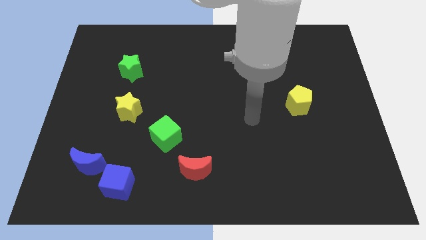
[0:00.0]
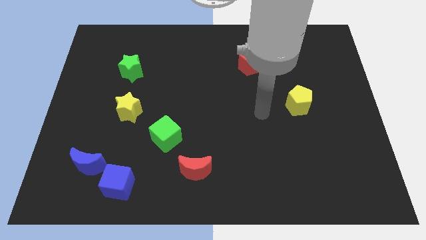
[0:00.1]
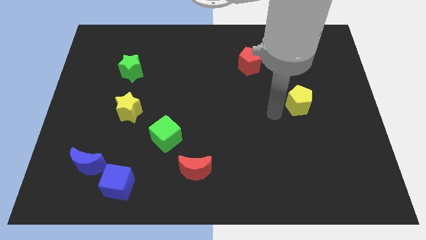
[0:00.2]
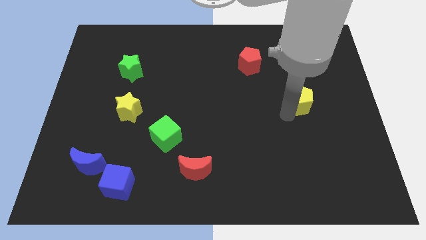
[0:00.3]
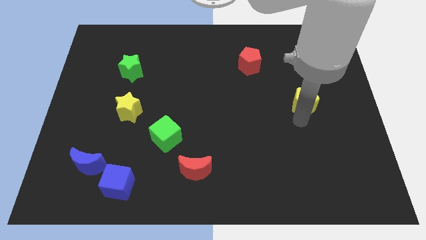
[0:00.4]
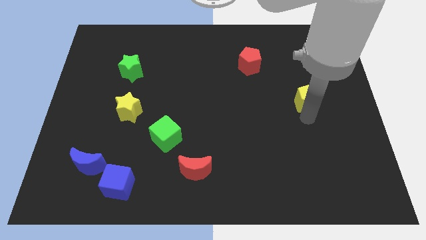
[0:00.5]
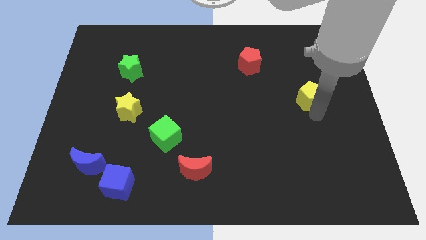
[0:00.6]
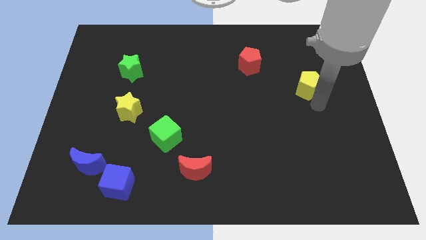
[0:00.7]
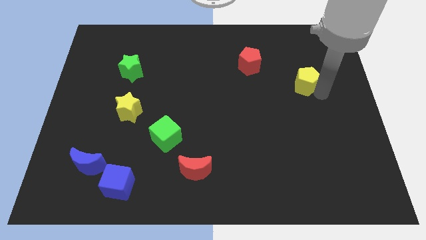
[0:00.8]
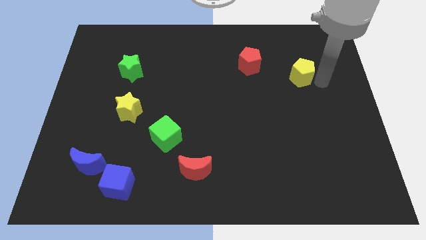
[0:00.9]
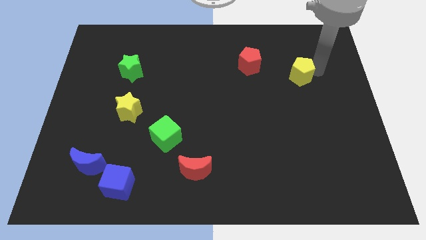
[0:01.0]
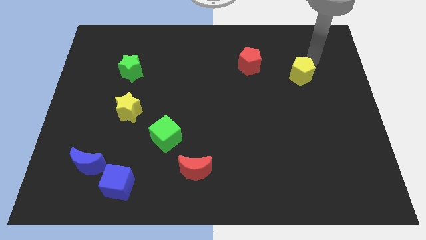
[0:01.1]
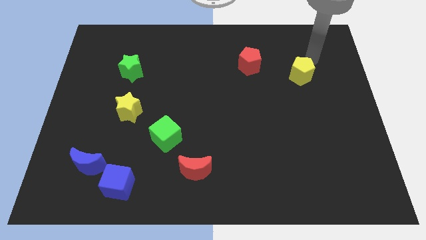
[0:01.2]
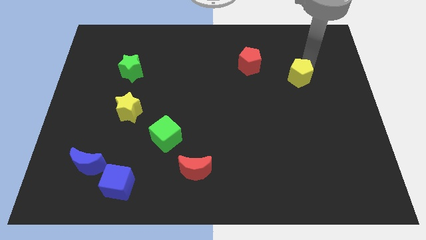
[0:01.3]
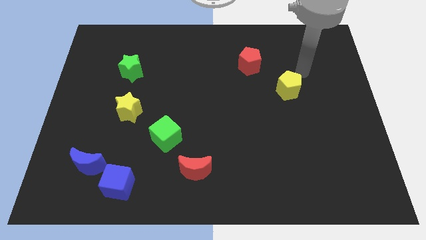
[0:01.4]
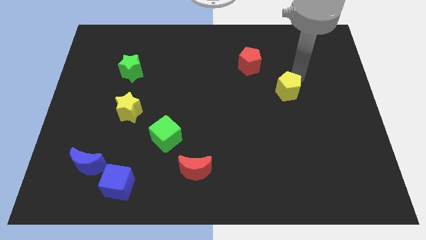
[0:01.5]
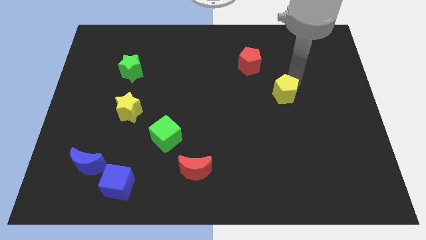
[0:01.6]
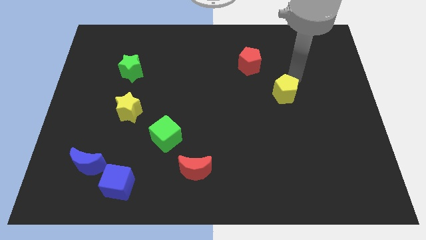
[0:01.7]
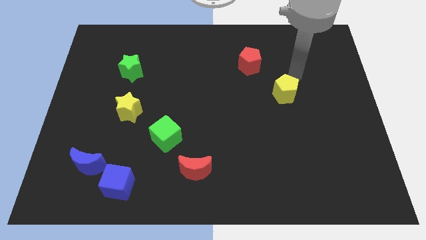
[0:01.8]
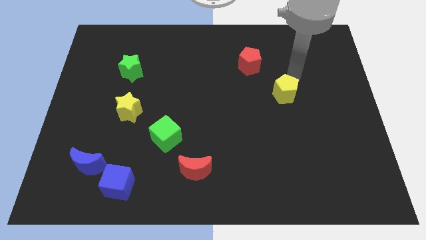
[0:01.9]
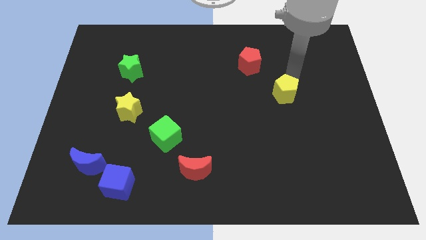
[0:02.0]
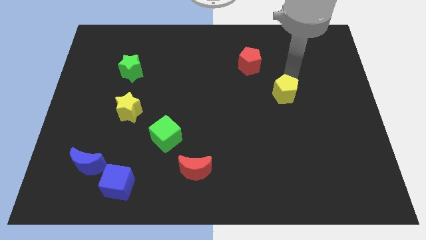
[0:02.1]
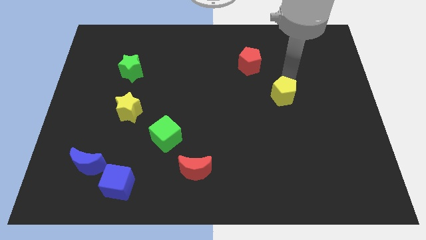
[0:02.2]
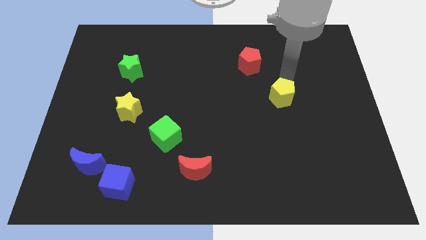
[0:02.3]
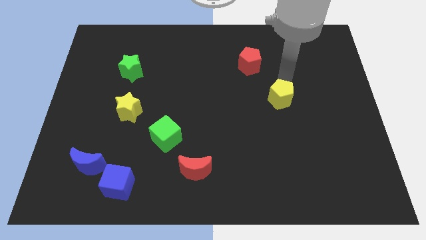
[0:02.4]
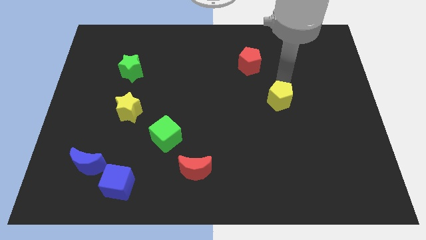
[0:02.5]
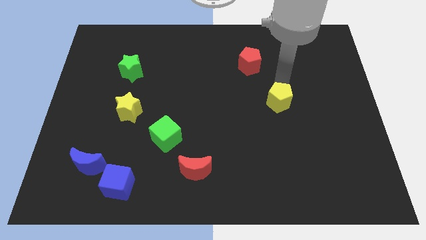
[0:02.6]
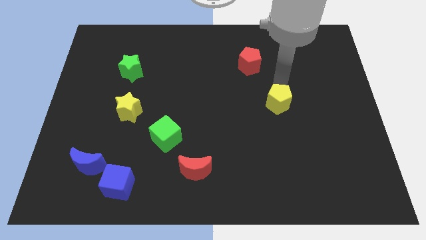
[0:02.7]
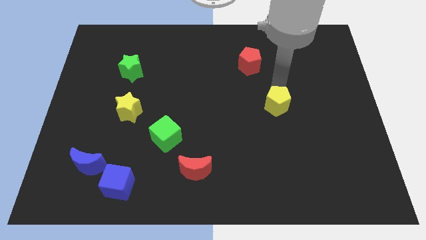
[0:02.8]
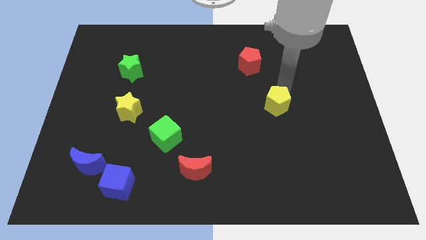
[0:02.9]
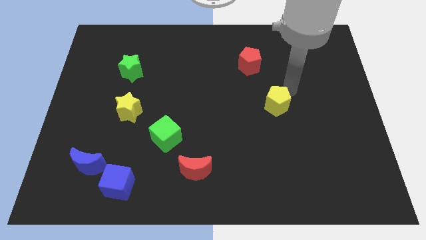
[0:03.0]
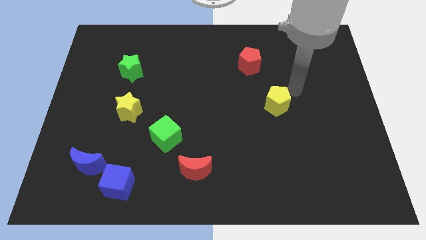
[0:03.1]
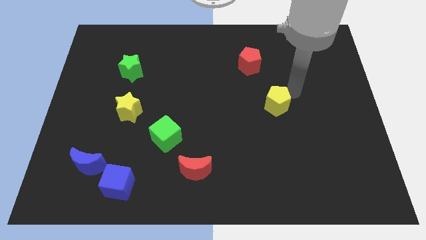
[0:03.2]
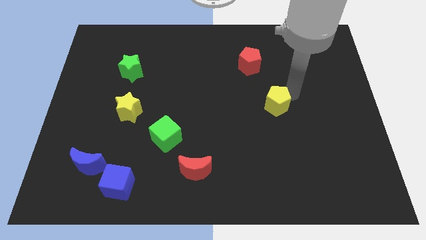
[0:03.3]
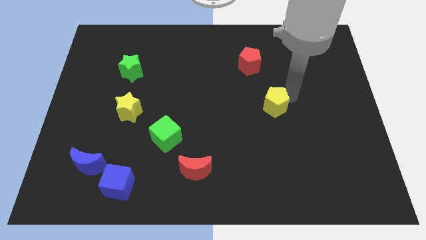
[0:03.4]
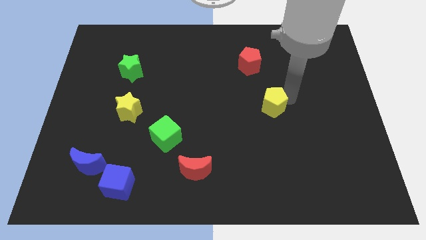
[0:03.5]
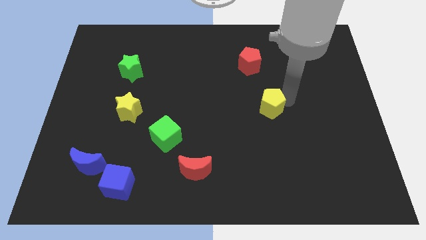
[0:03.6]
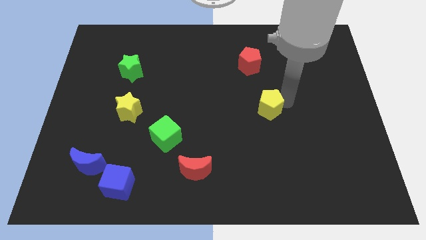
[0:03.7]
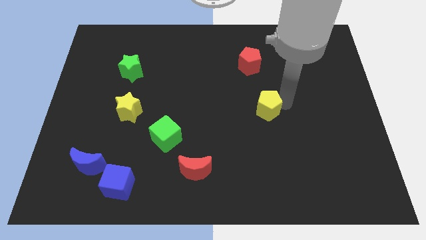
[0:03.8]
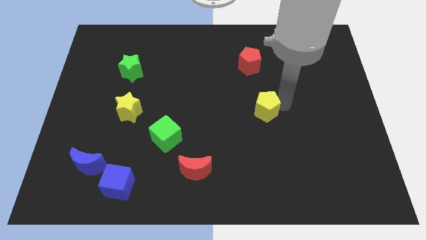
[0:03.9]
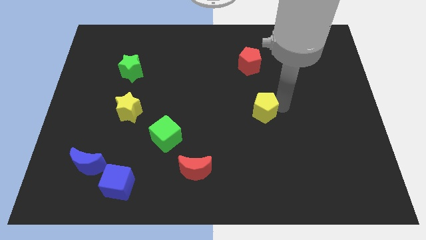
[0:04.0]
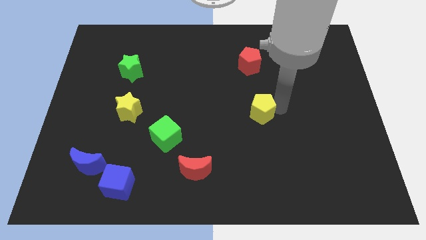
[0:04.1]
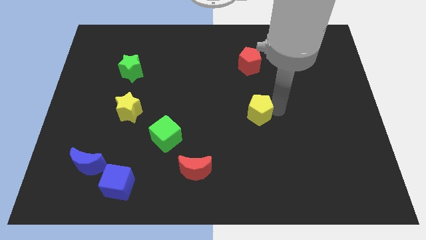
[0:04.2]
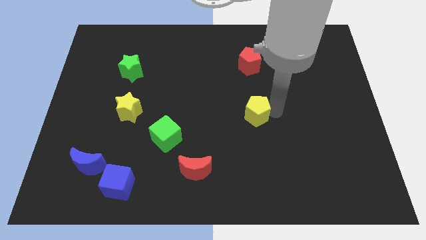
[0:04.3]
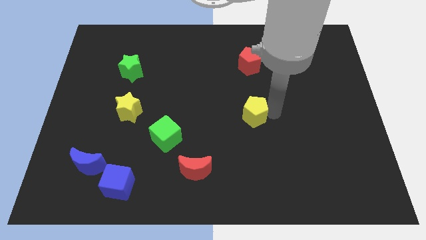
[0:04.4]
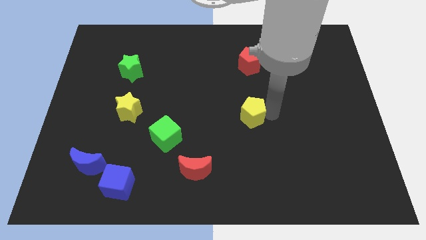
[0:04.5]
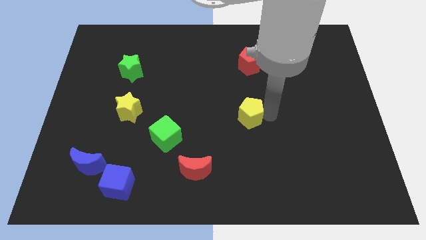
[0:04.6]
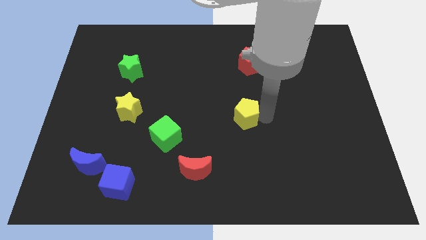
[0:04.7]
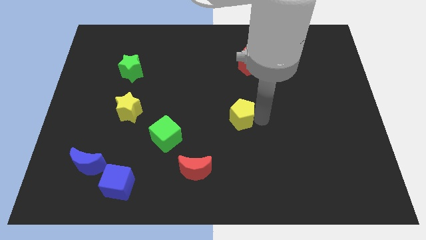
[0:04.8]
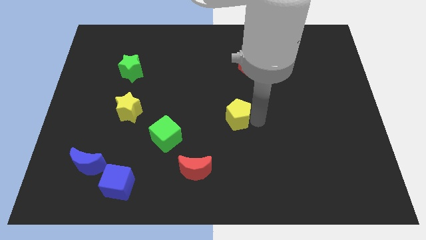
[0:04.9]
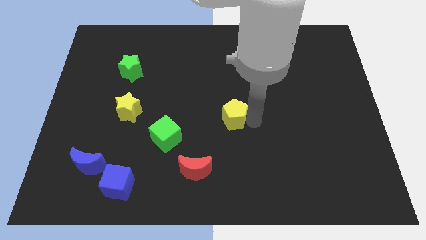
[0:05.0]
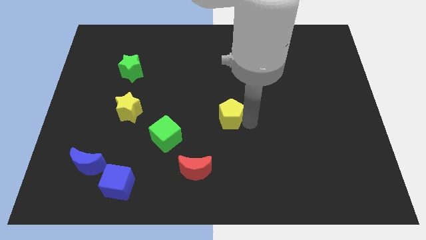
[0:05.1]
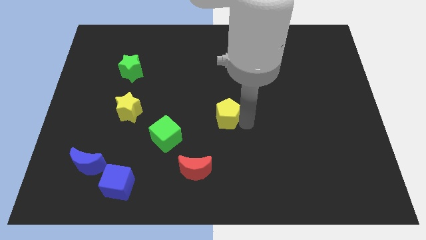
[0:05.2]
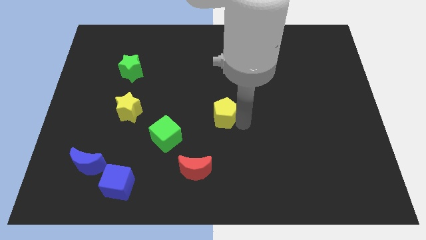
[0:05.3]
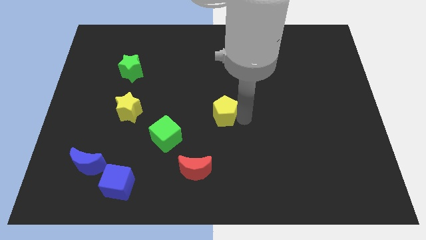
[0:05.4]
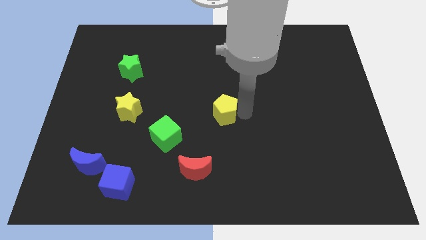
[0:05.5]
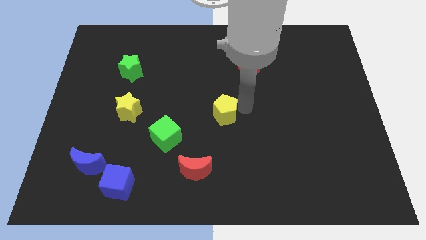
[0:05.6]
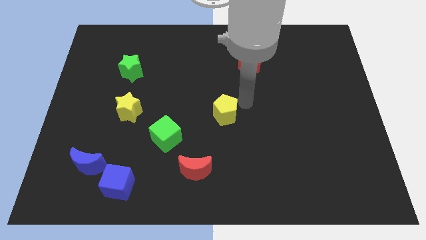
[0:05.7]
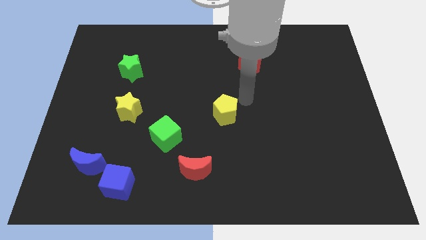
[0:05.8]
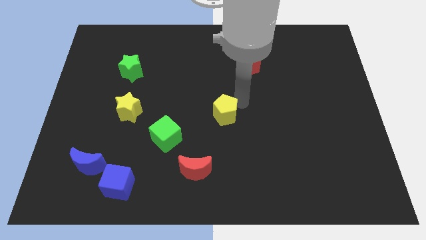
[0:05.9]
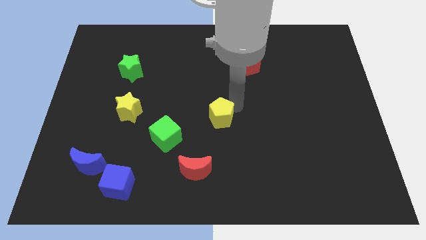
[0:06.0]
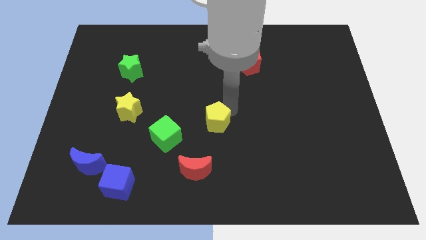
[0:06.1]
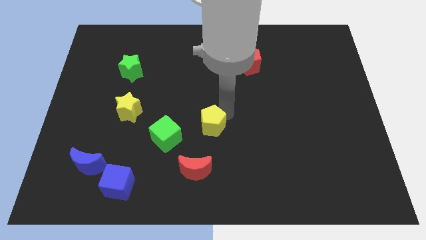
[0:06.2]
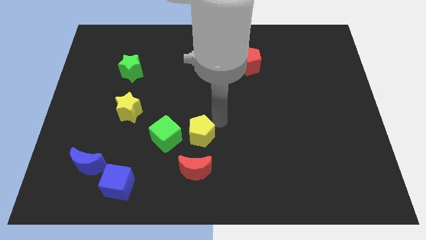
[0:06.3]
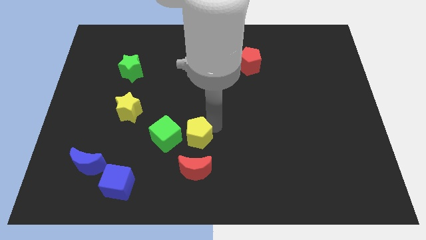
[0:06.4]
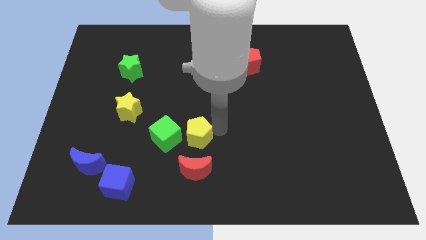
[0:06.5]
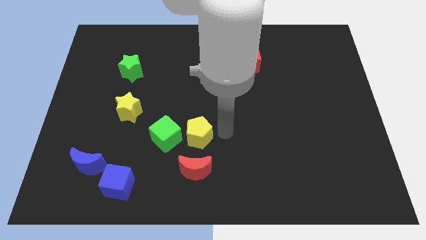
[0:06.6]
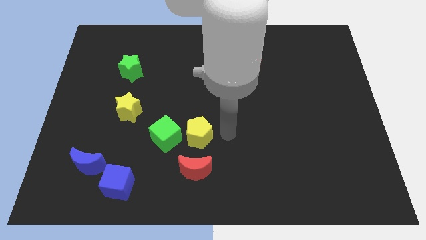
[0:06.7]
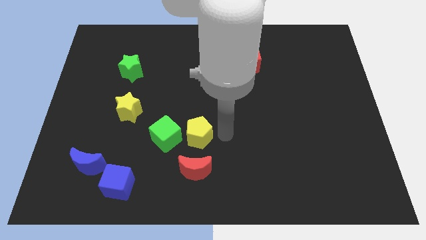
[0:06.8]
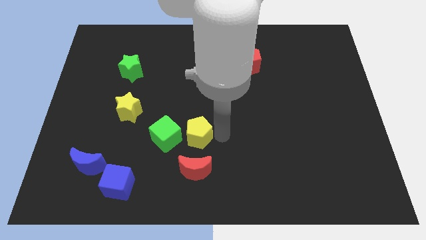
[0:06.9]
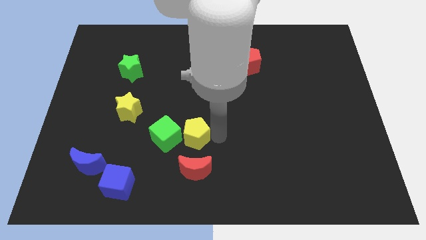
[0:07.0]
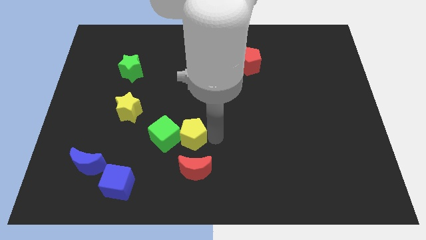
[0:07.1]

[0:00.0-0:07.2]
slide the yellow pentagon close to the green cube

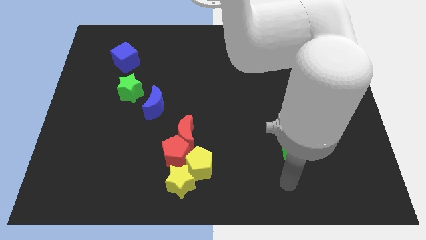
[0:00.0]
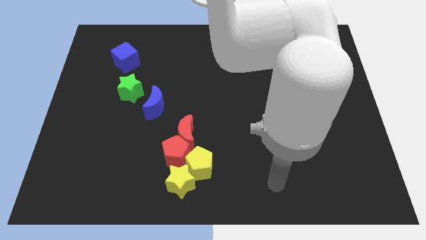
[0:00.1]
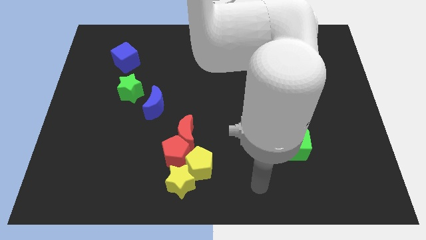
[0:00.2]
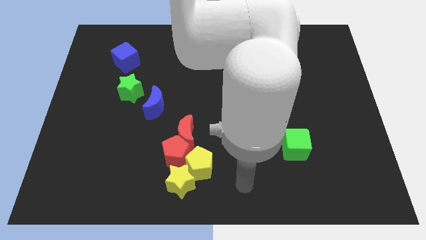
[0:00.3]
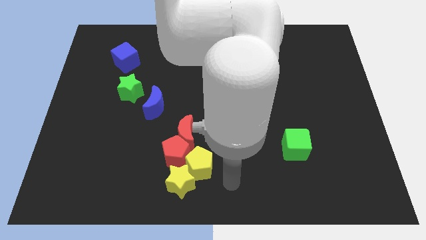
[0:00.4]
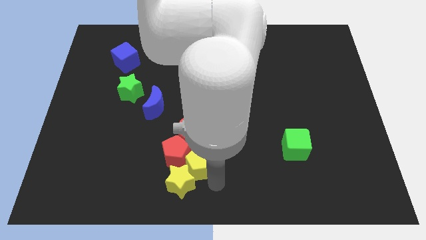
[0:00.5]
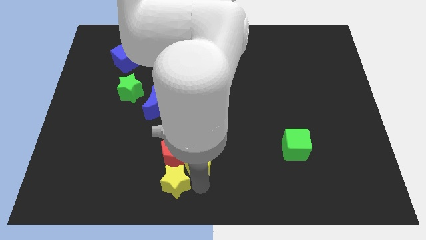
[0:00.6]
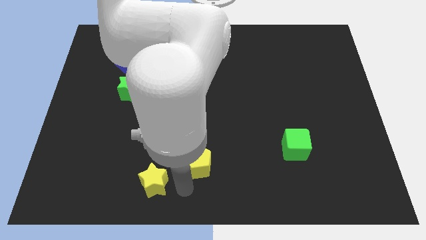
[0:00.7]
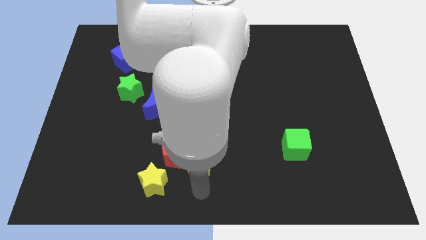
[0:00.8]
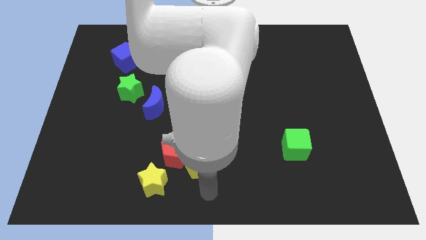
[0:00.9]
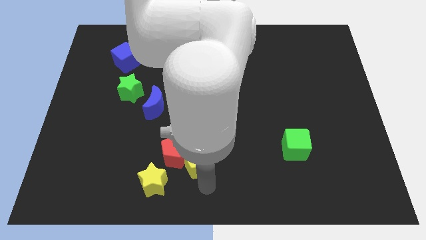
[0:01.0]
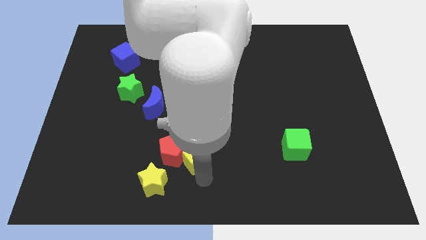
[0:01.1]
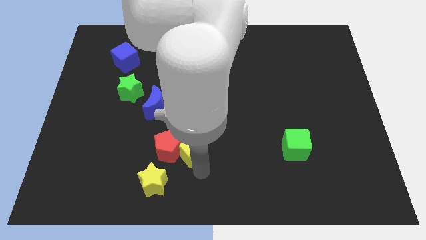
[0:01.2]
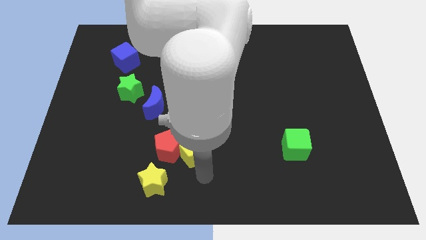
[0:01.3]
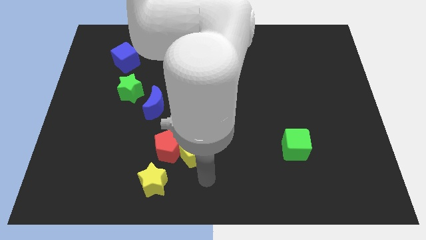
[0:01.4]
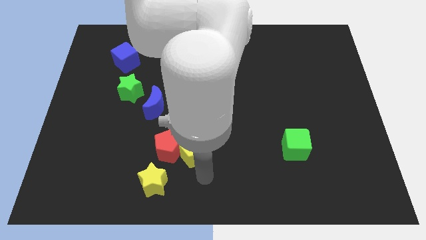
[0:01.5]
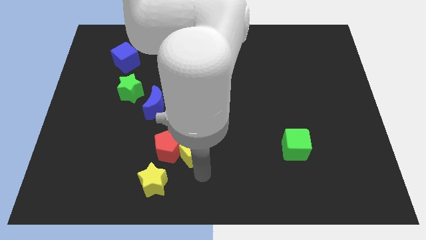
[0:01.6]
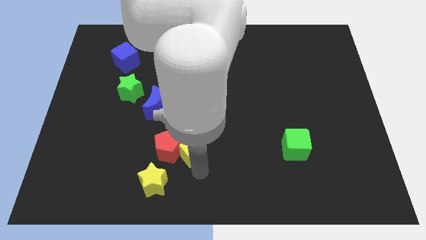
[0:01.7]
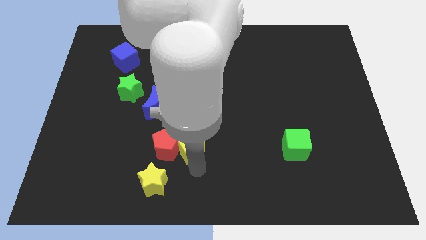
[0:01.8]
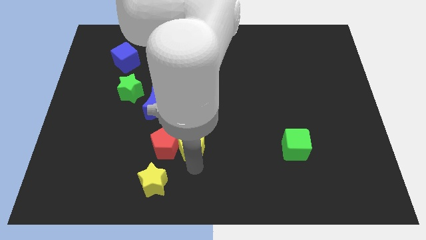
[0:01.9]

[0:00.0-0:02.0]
slide the yellow pentagon towards the red moon
